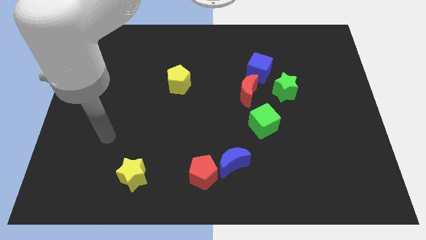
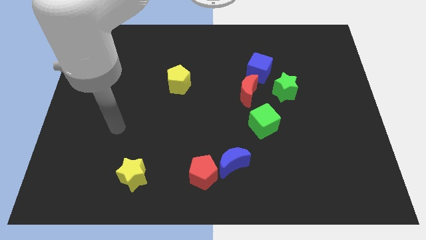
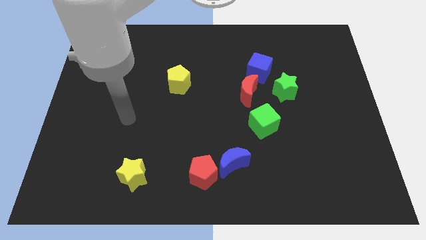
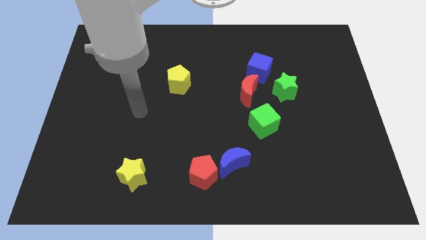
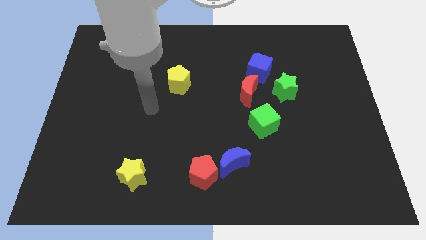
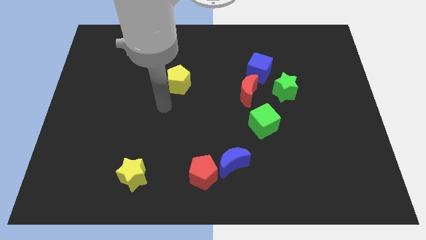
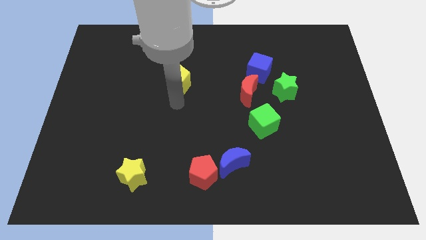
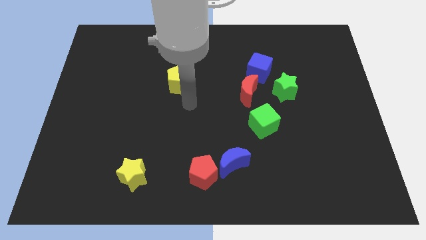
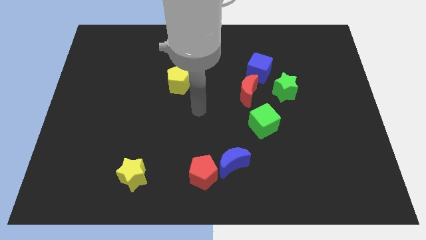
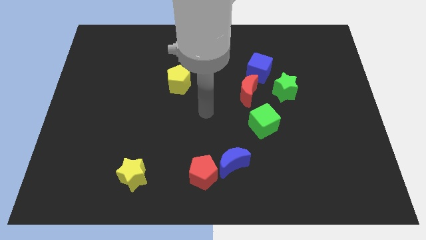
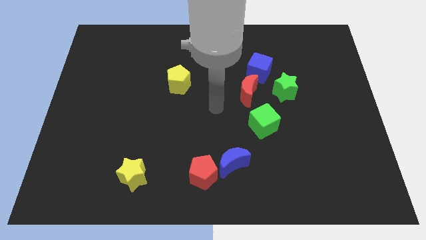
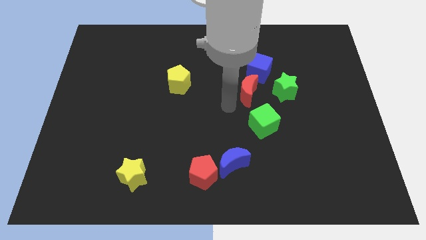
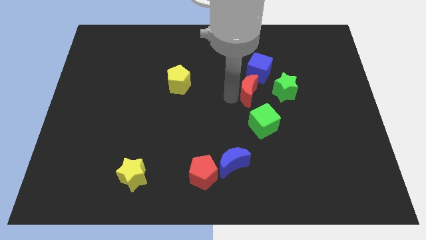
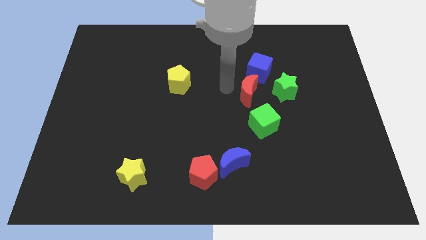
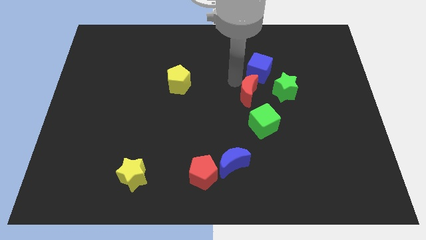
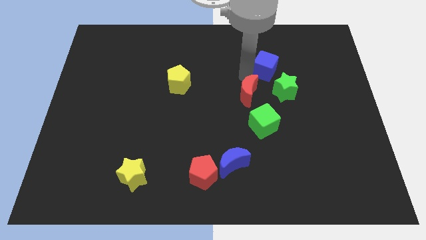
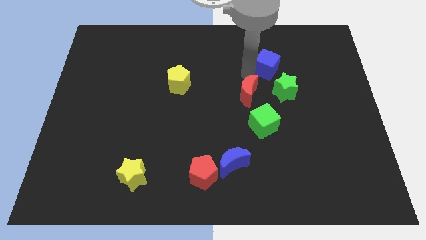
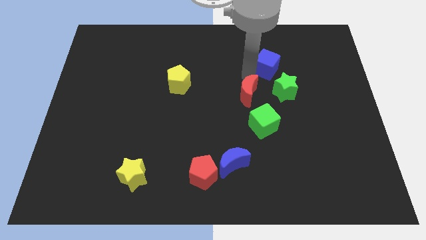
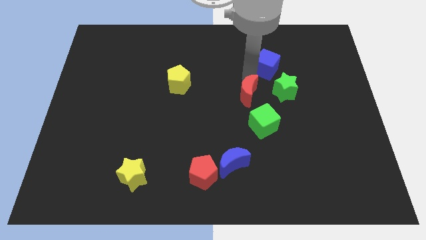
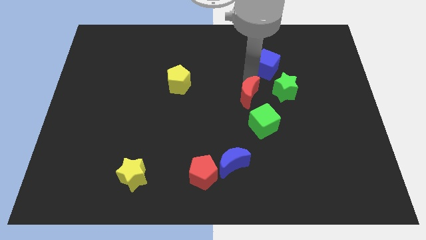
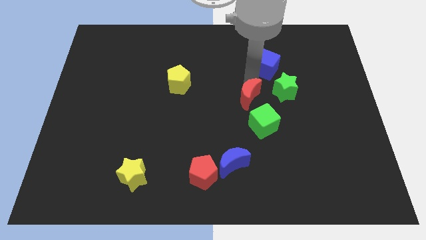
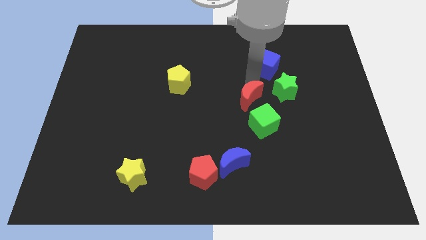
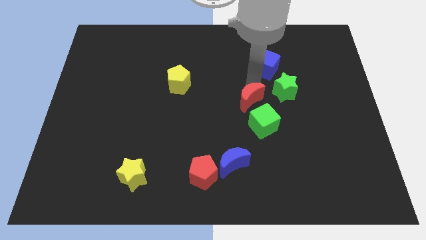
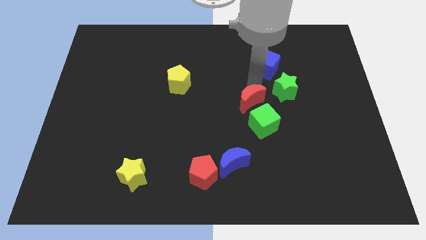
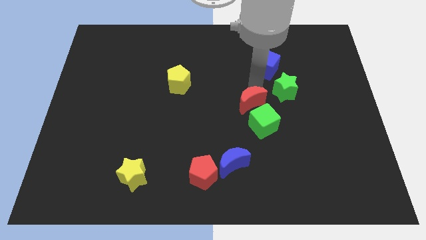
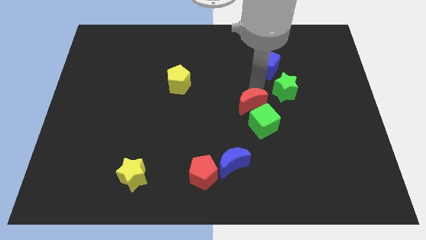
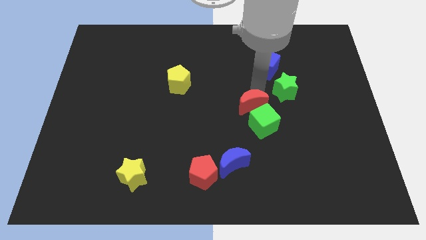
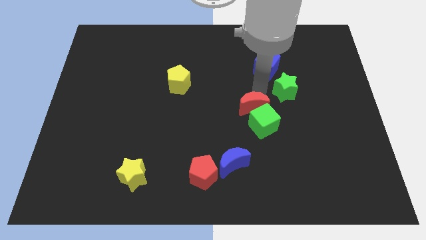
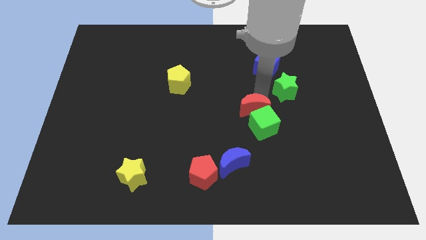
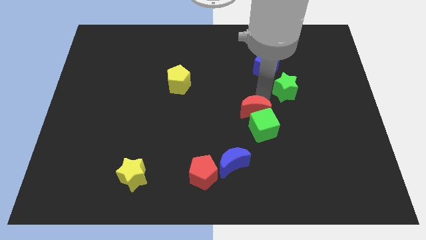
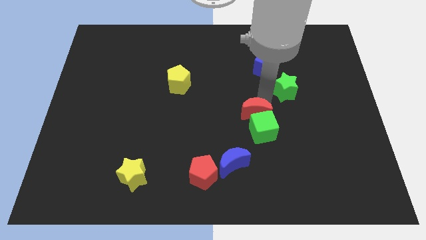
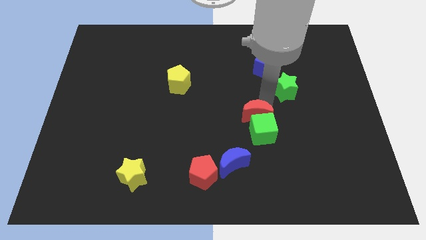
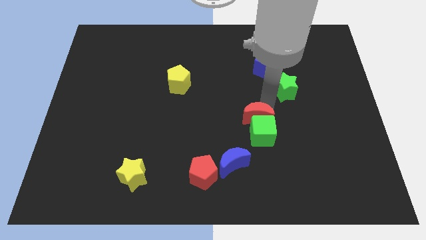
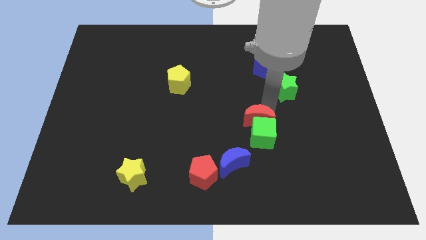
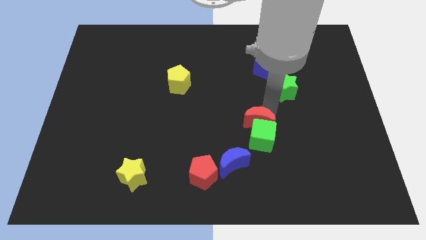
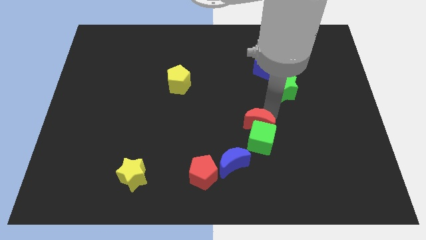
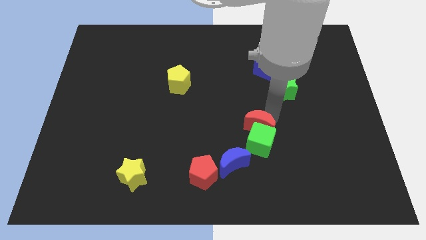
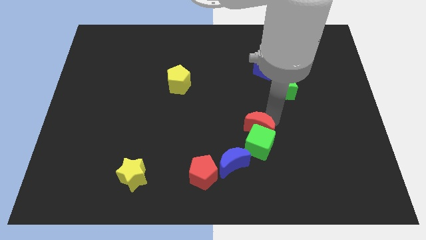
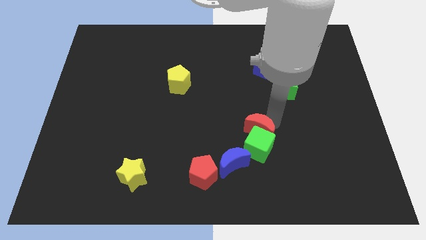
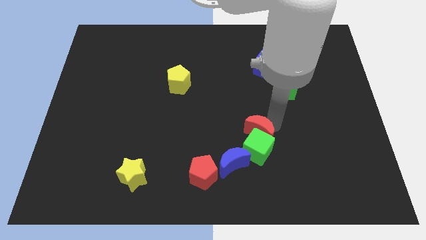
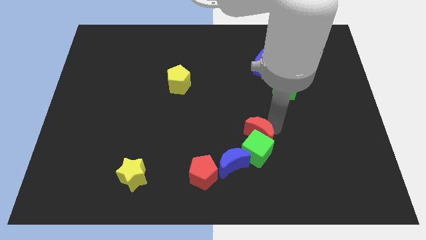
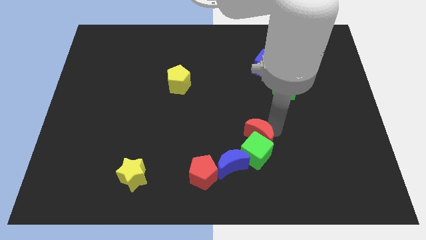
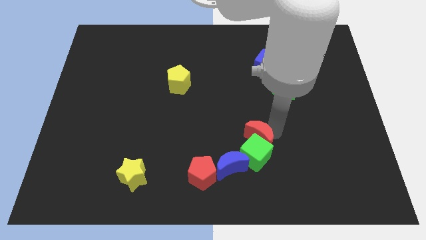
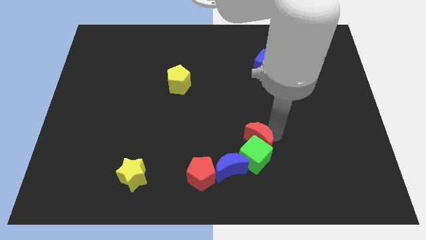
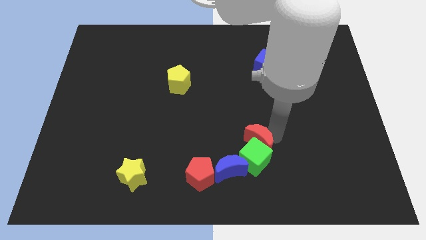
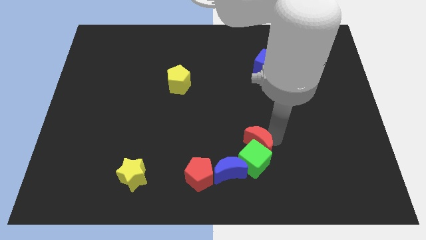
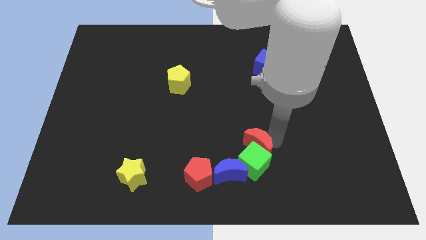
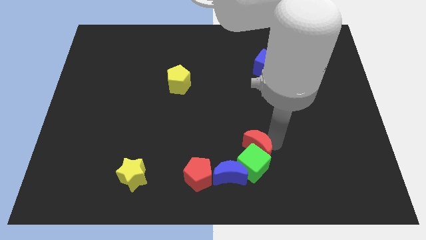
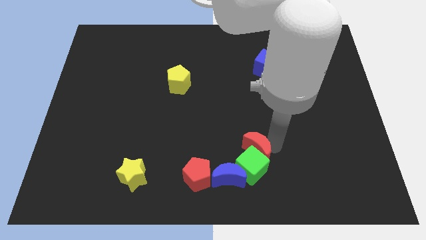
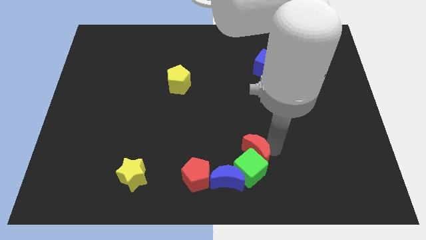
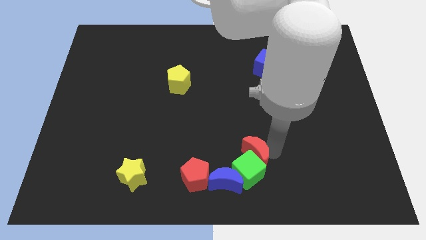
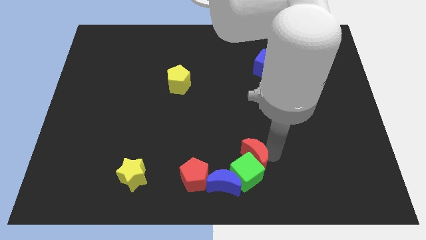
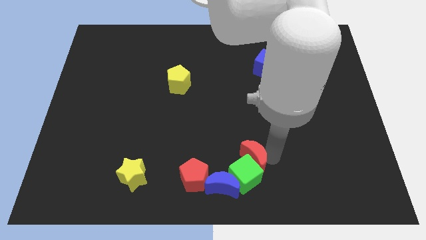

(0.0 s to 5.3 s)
slide the red moon to the right side of the red pentagon
